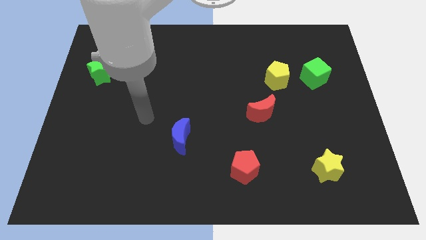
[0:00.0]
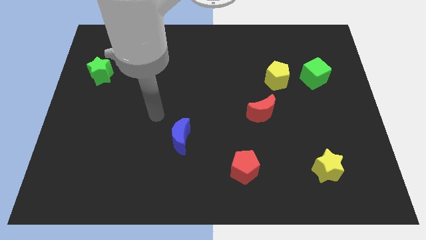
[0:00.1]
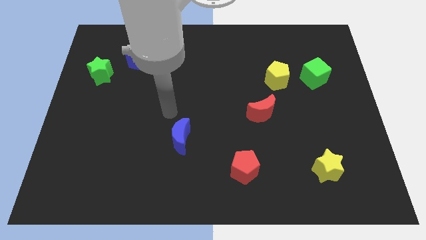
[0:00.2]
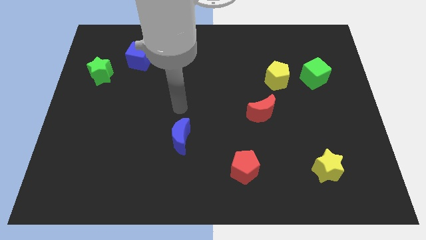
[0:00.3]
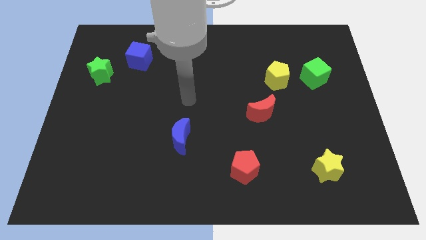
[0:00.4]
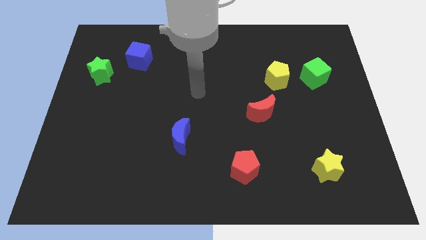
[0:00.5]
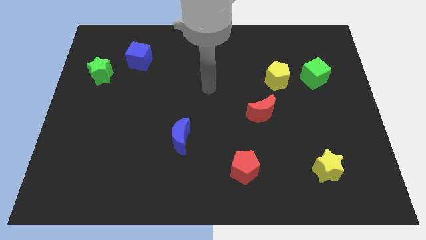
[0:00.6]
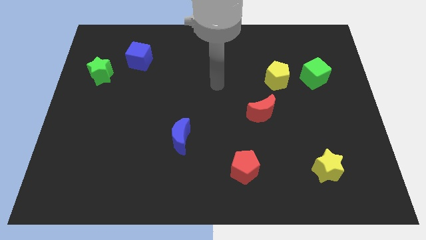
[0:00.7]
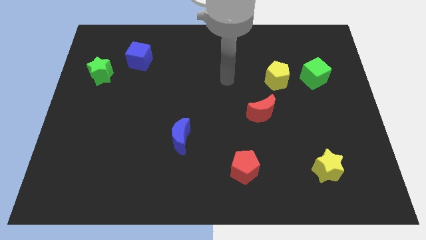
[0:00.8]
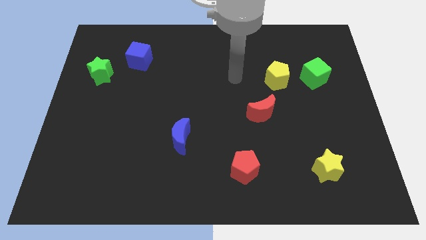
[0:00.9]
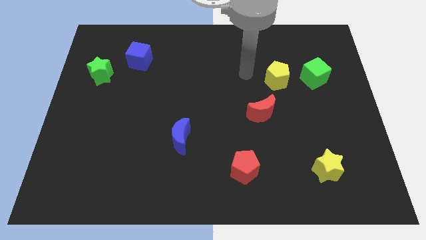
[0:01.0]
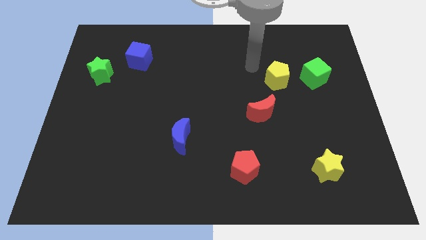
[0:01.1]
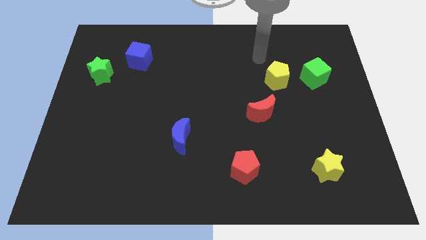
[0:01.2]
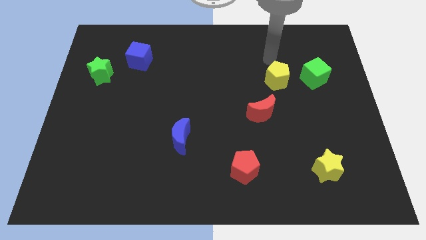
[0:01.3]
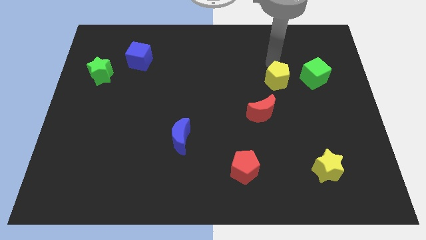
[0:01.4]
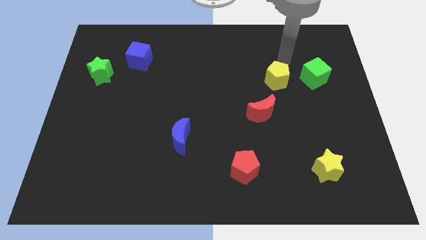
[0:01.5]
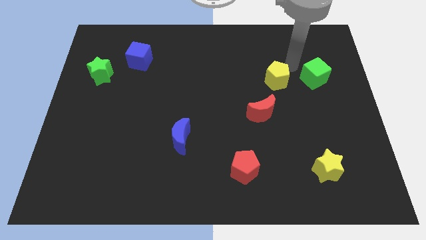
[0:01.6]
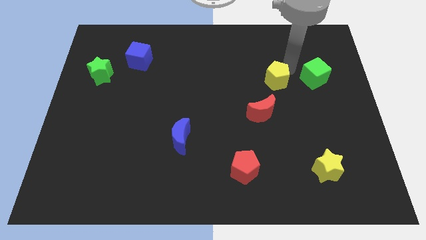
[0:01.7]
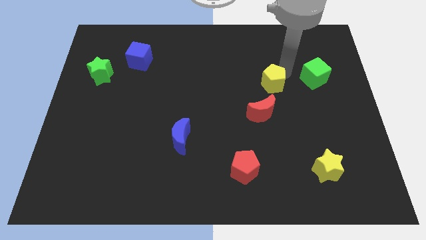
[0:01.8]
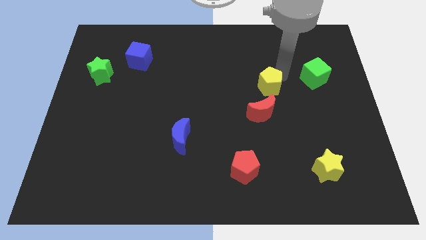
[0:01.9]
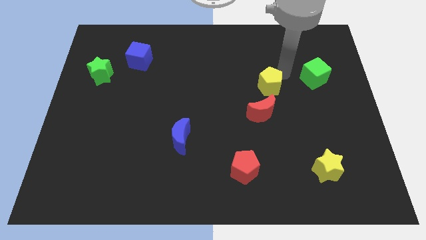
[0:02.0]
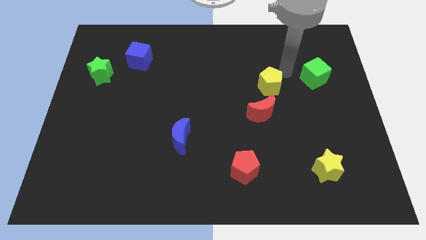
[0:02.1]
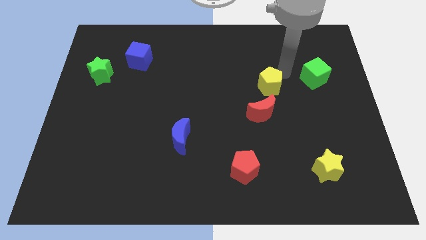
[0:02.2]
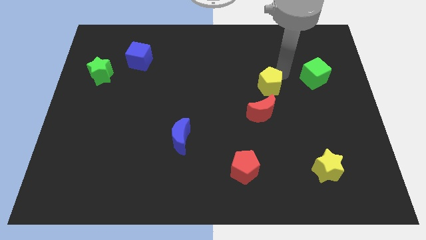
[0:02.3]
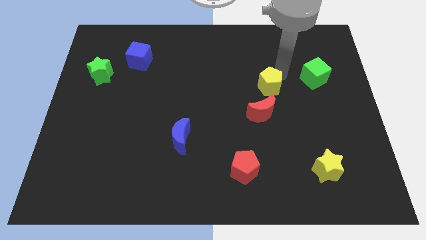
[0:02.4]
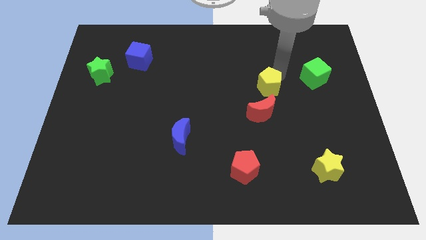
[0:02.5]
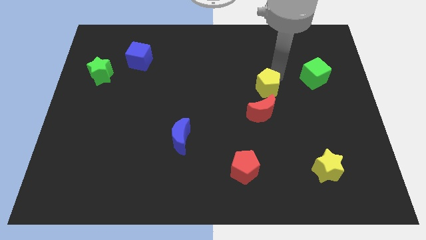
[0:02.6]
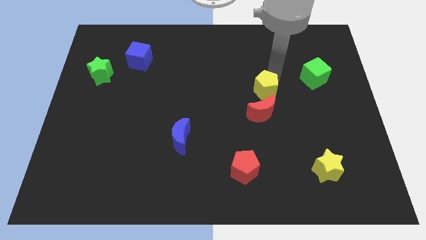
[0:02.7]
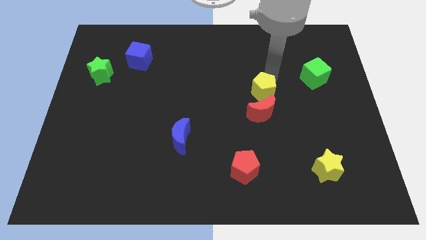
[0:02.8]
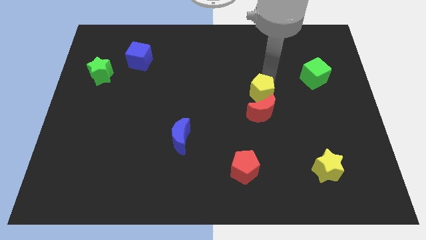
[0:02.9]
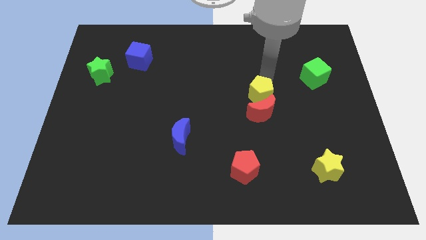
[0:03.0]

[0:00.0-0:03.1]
slightly move the yellow pentagon downwards and to the left diagonally

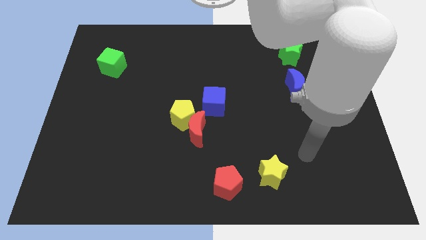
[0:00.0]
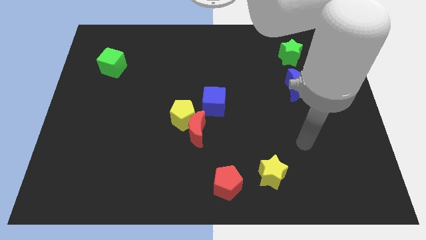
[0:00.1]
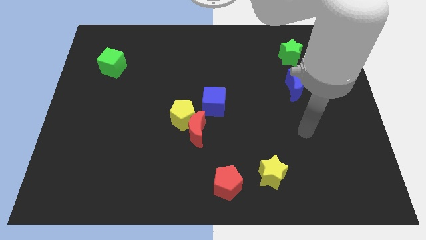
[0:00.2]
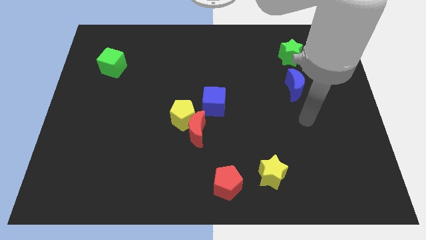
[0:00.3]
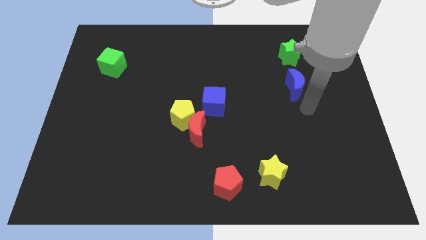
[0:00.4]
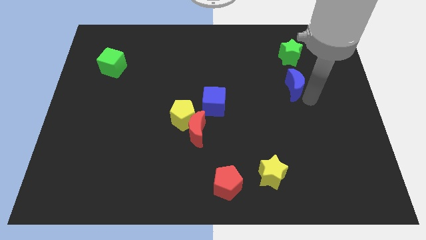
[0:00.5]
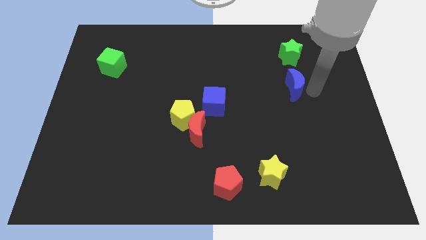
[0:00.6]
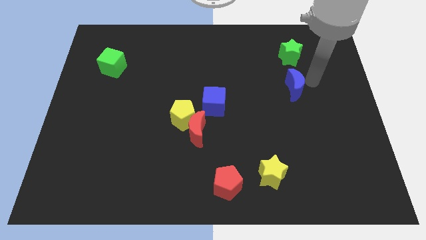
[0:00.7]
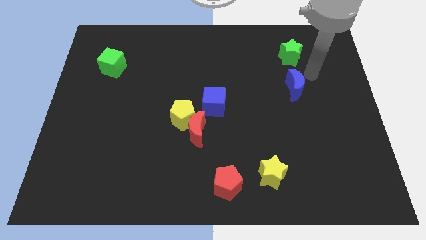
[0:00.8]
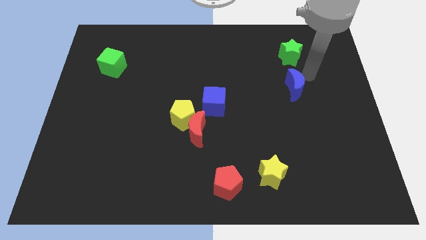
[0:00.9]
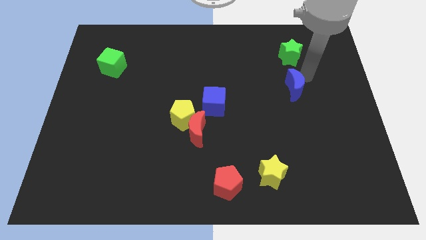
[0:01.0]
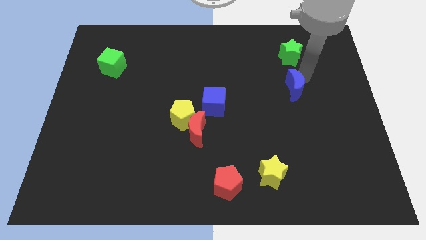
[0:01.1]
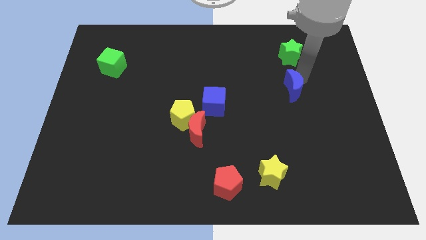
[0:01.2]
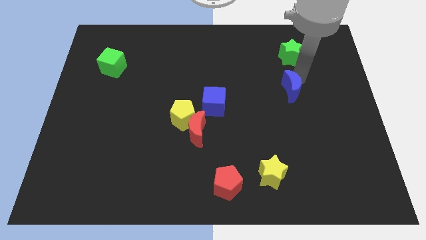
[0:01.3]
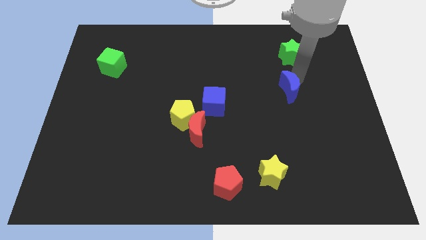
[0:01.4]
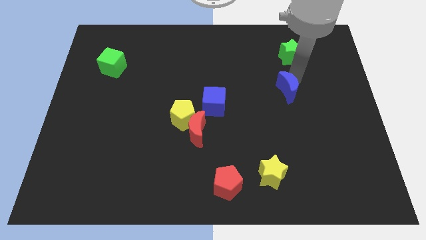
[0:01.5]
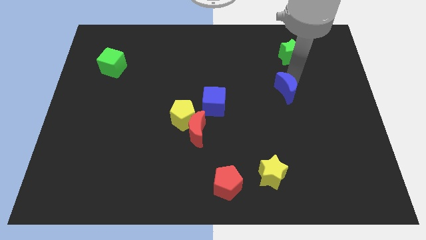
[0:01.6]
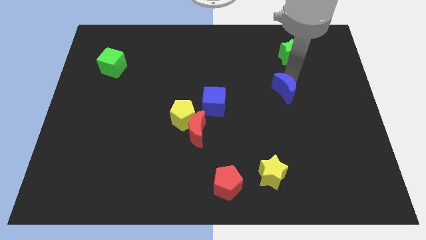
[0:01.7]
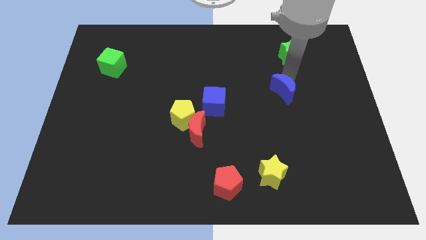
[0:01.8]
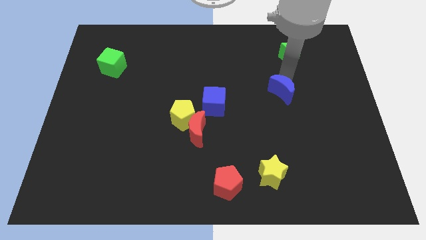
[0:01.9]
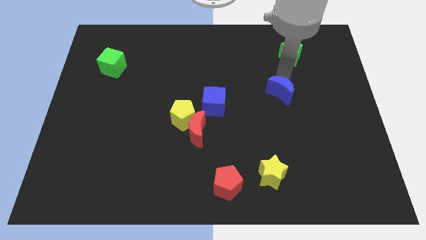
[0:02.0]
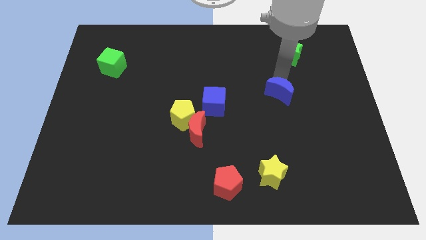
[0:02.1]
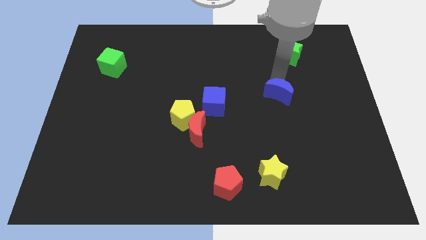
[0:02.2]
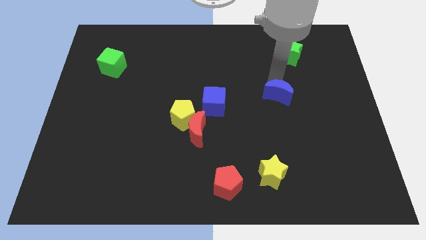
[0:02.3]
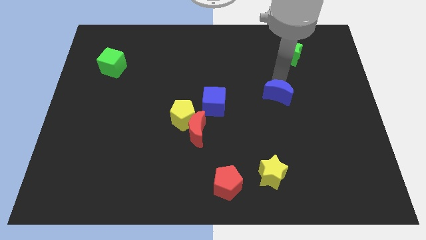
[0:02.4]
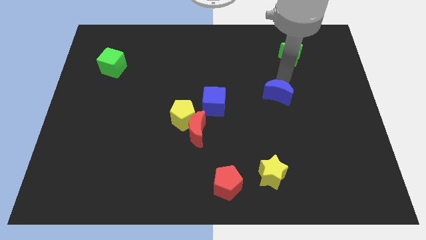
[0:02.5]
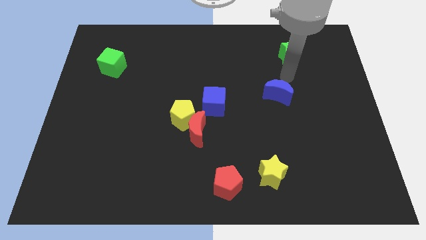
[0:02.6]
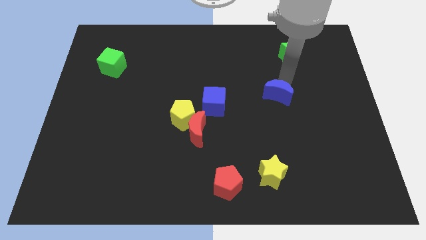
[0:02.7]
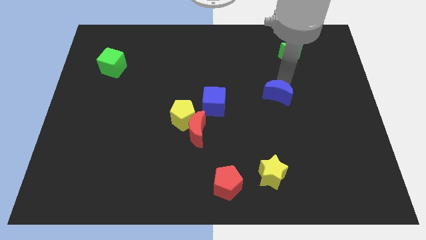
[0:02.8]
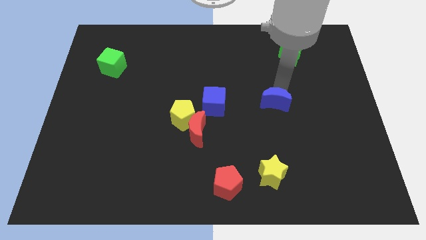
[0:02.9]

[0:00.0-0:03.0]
slightly push the blue moon diagonally down and left

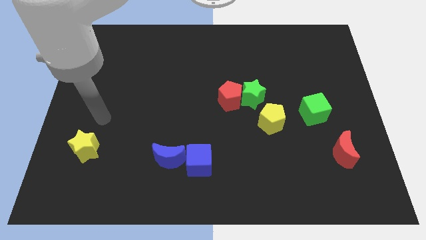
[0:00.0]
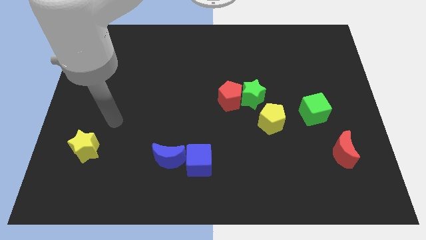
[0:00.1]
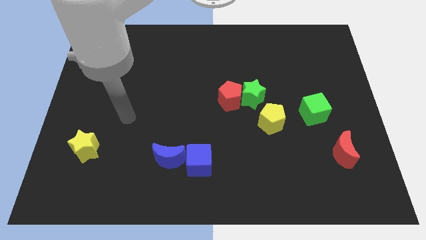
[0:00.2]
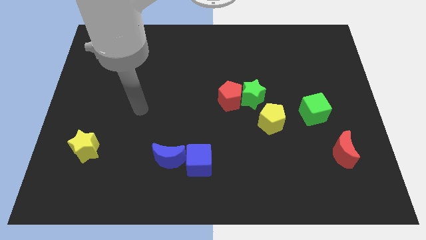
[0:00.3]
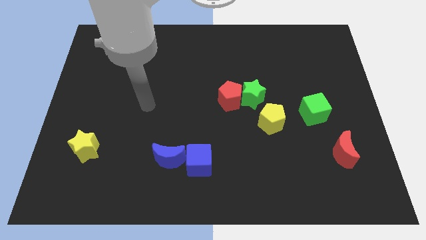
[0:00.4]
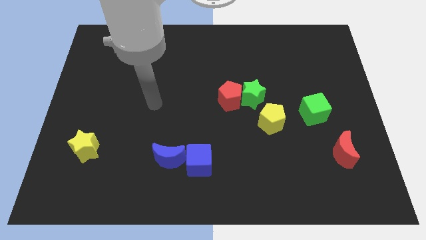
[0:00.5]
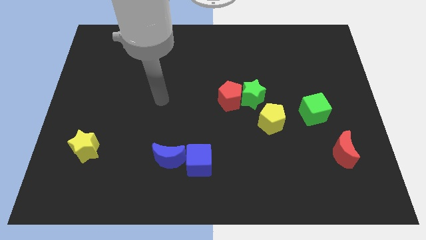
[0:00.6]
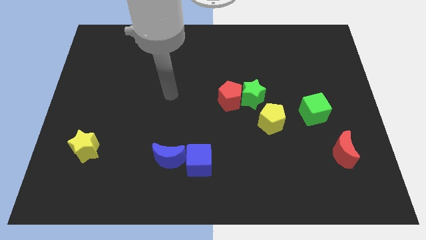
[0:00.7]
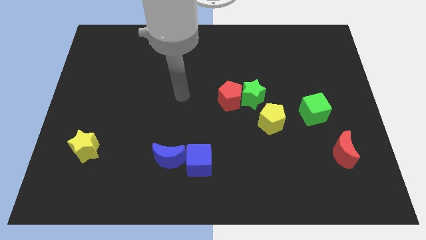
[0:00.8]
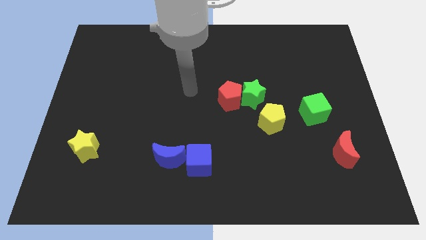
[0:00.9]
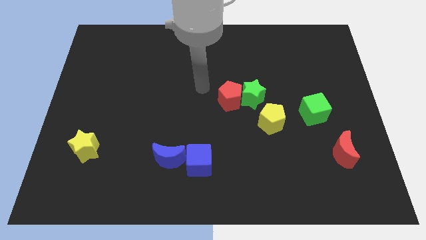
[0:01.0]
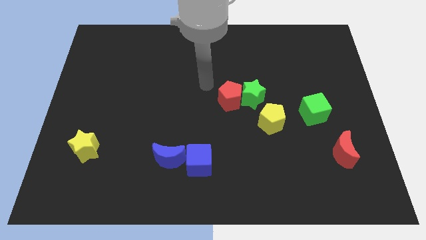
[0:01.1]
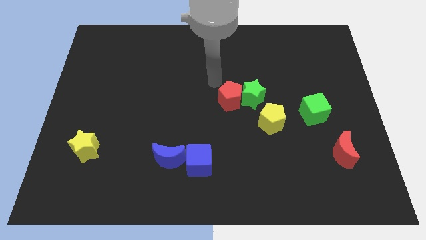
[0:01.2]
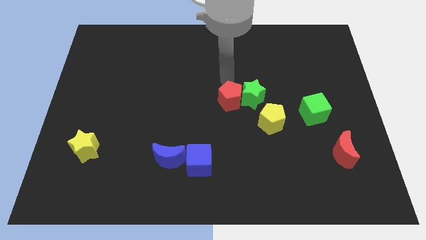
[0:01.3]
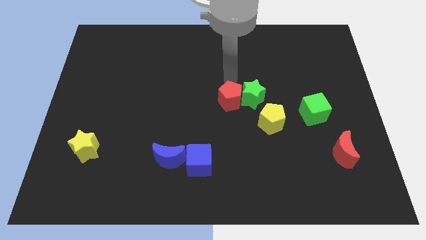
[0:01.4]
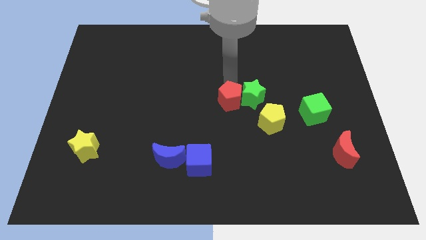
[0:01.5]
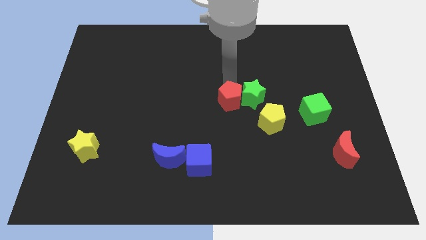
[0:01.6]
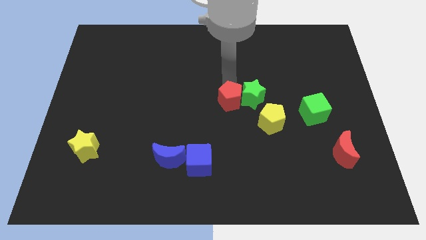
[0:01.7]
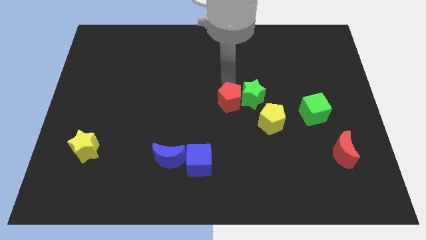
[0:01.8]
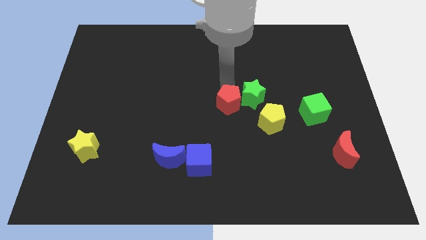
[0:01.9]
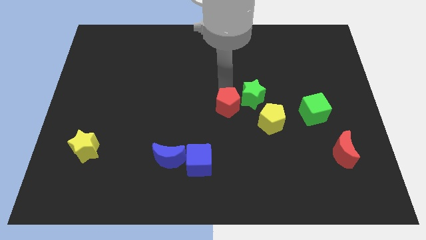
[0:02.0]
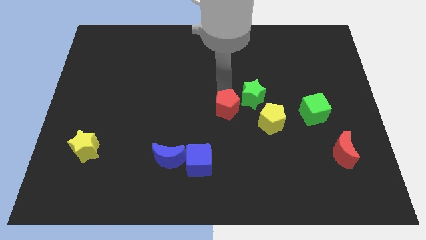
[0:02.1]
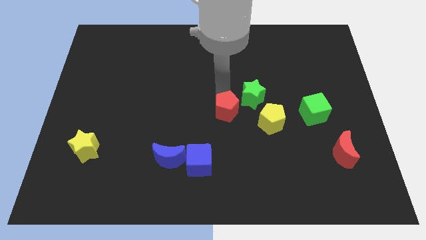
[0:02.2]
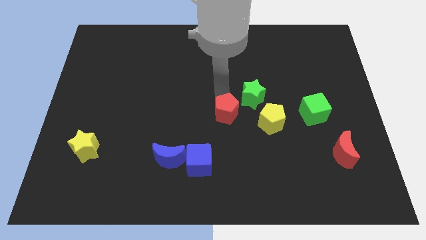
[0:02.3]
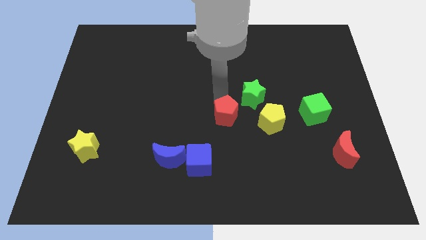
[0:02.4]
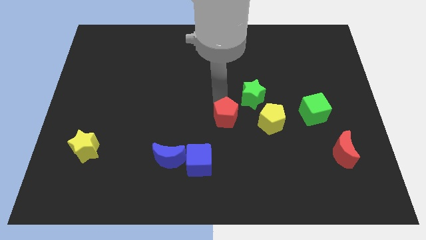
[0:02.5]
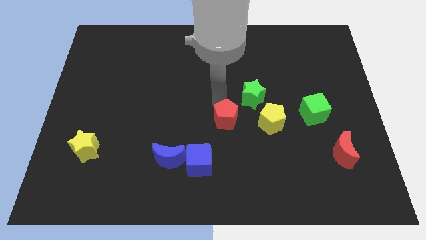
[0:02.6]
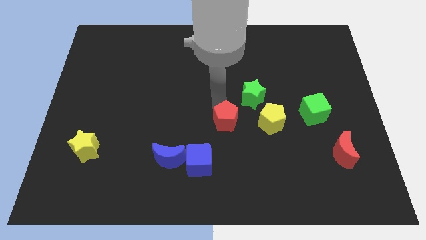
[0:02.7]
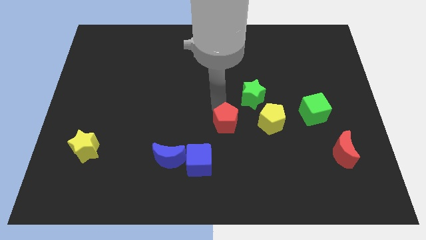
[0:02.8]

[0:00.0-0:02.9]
move the red pentagon a bit down
